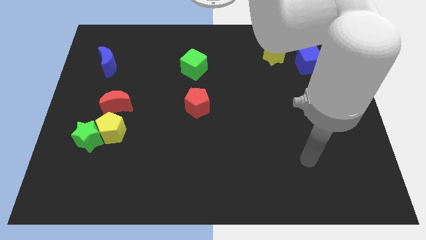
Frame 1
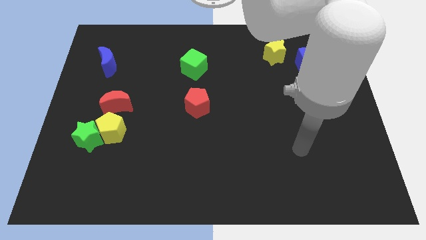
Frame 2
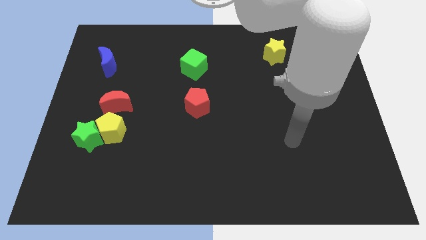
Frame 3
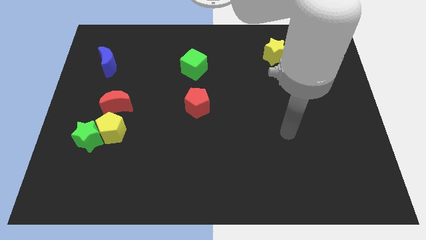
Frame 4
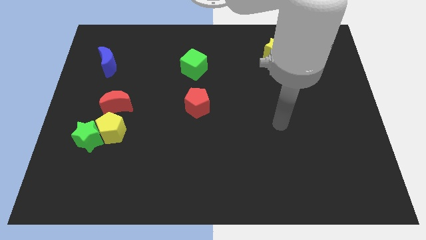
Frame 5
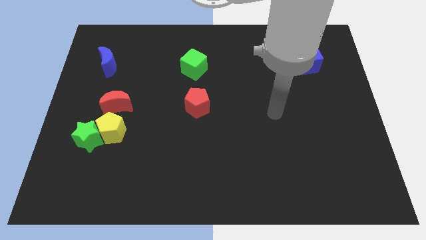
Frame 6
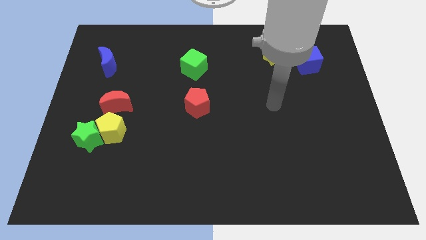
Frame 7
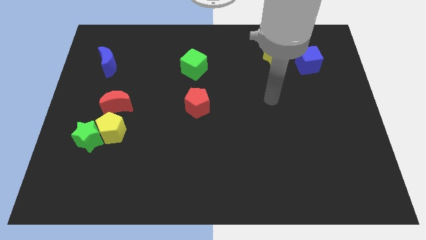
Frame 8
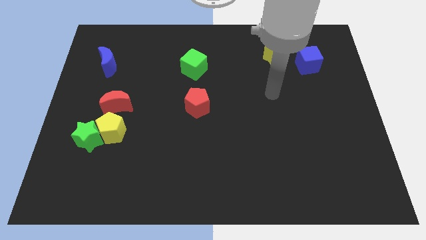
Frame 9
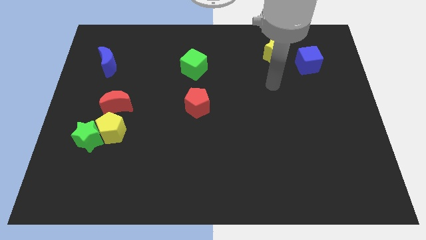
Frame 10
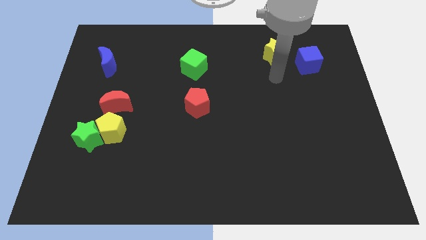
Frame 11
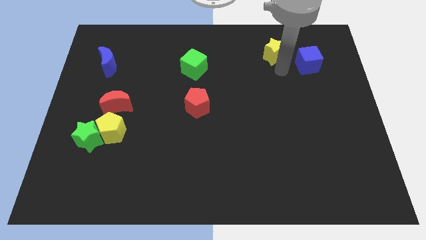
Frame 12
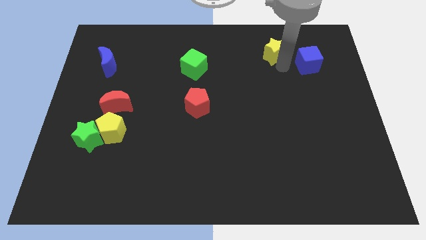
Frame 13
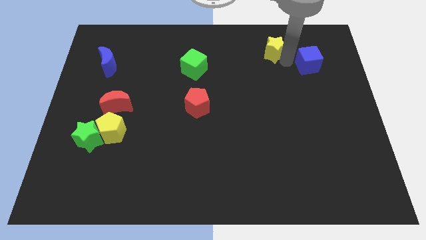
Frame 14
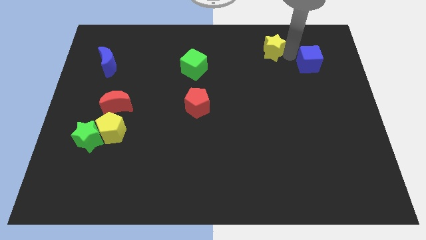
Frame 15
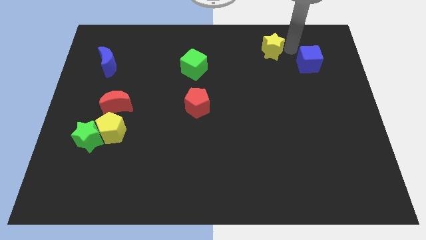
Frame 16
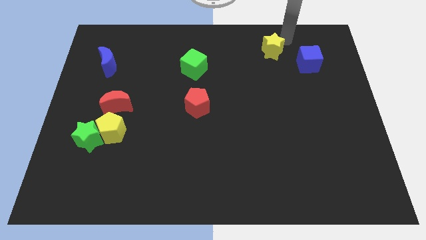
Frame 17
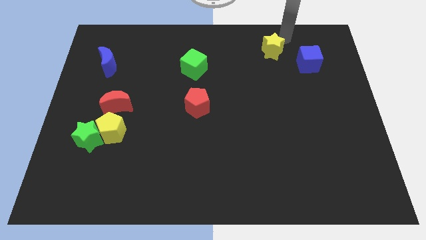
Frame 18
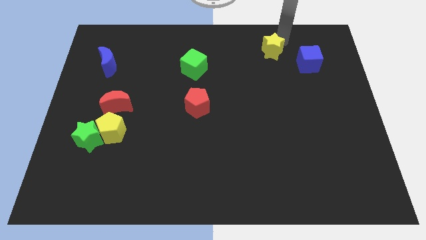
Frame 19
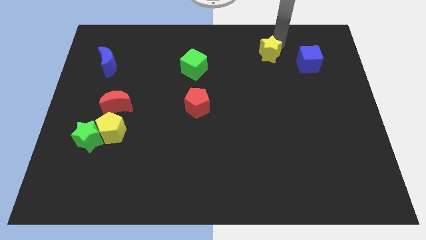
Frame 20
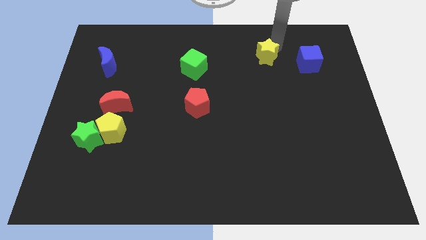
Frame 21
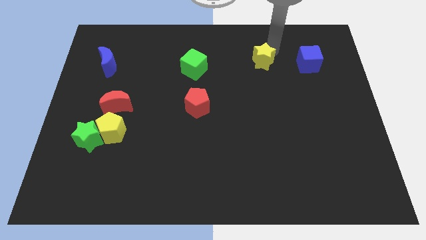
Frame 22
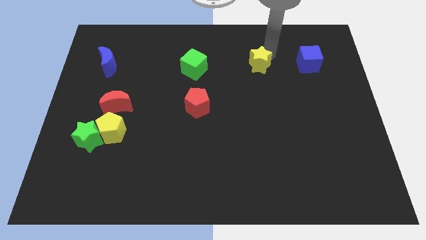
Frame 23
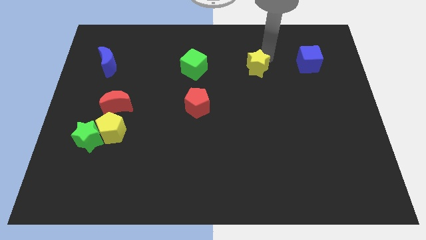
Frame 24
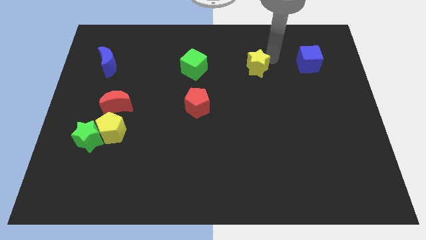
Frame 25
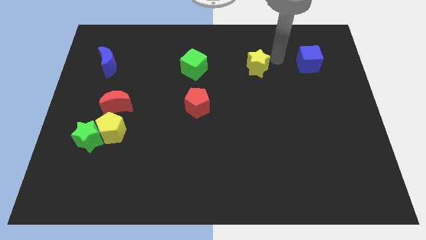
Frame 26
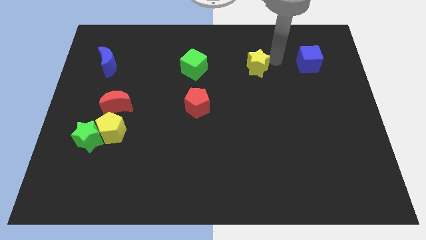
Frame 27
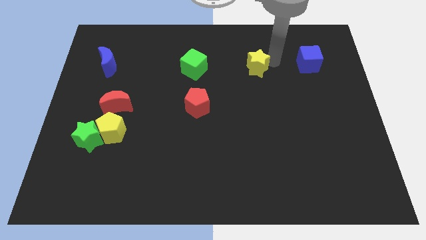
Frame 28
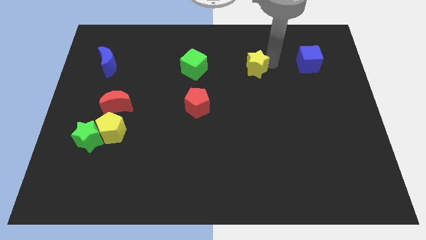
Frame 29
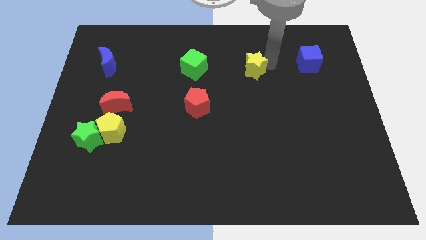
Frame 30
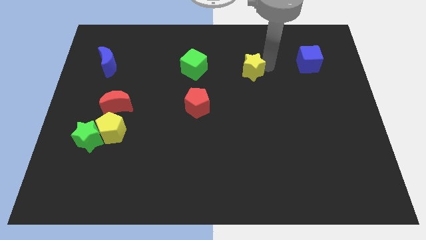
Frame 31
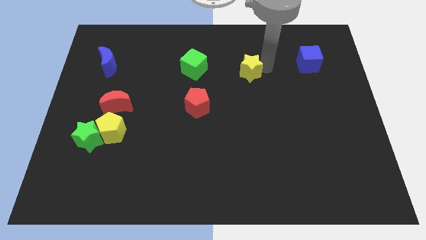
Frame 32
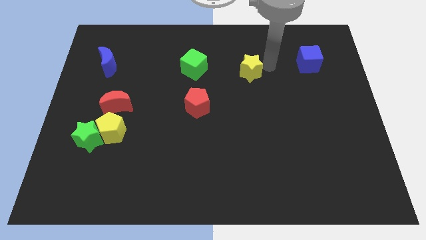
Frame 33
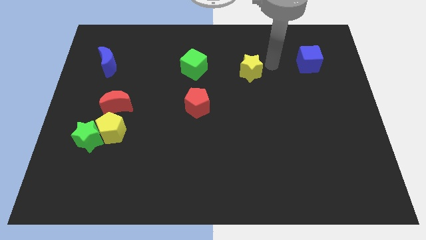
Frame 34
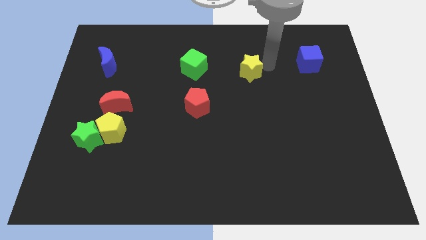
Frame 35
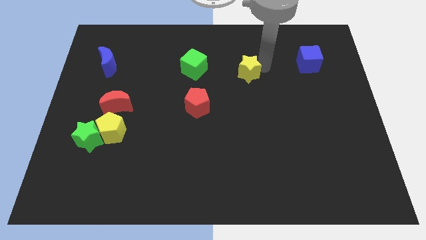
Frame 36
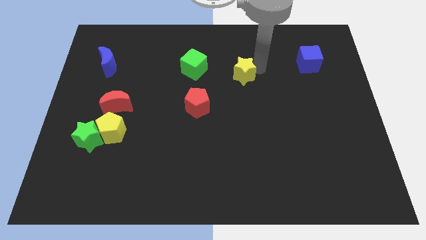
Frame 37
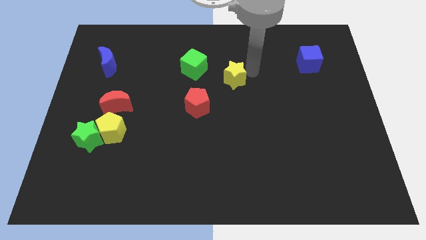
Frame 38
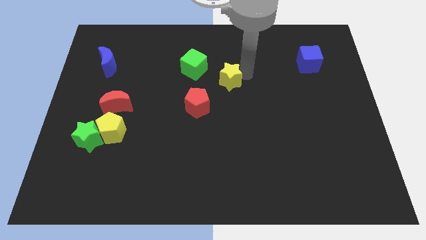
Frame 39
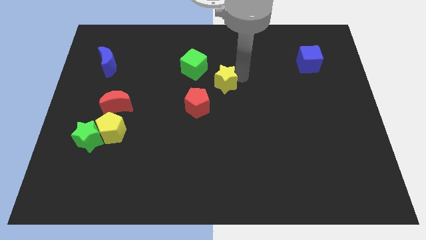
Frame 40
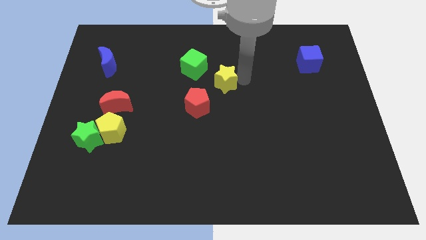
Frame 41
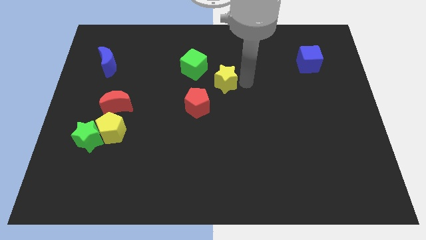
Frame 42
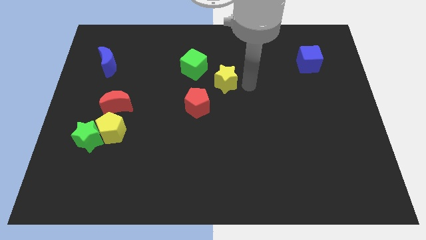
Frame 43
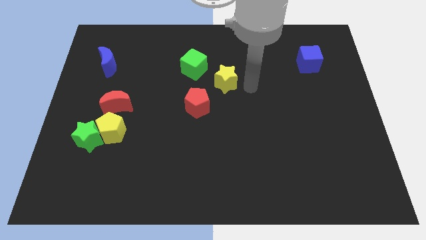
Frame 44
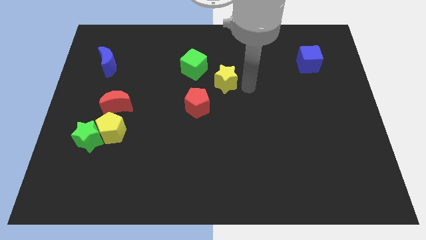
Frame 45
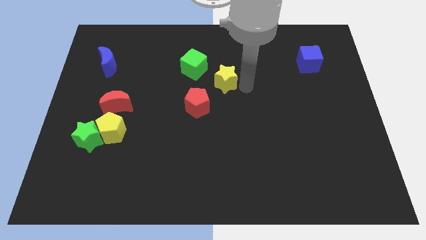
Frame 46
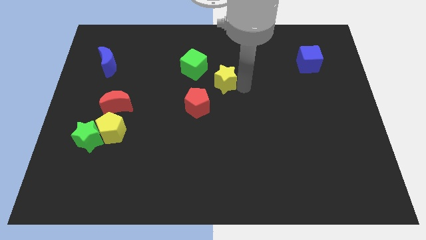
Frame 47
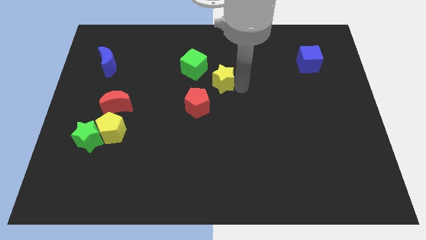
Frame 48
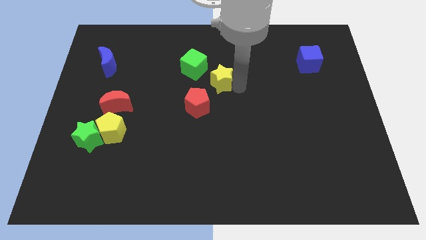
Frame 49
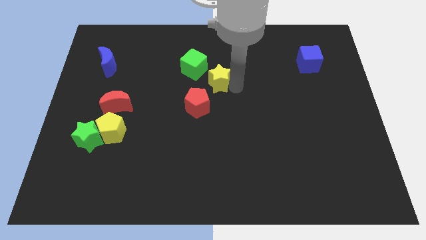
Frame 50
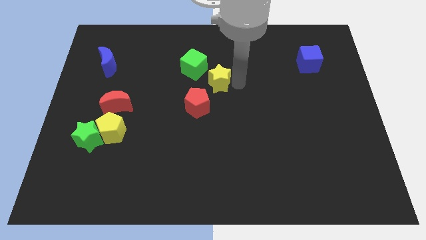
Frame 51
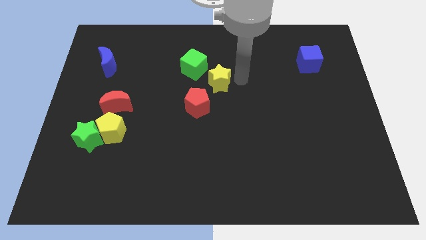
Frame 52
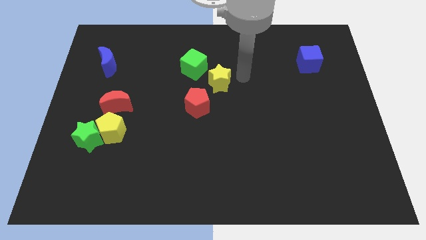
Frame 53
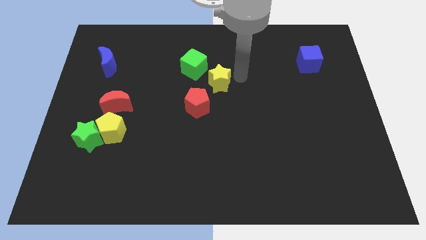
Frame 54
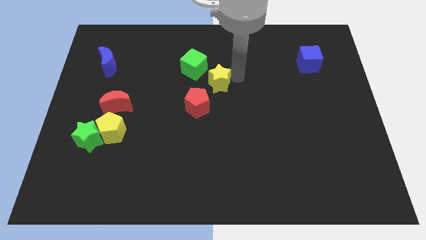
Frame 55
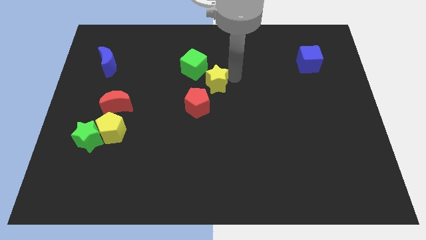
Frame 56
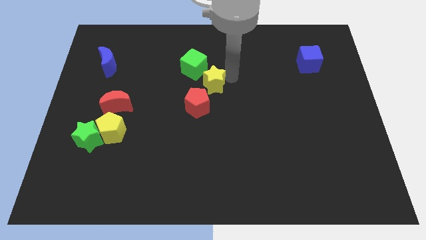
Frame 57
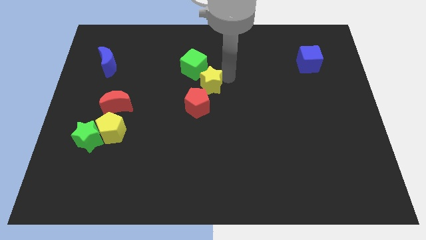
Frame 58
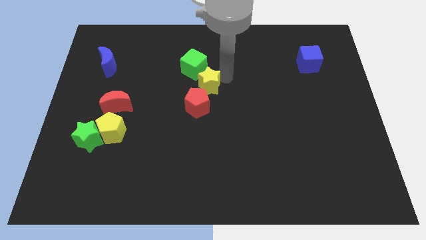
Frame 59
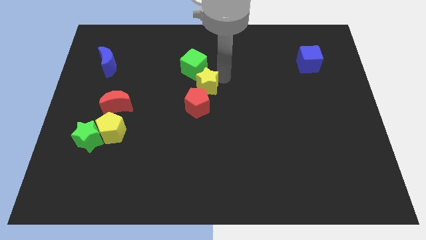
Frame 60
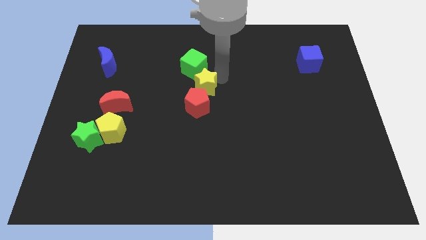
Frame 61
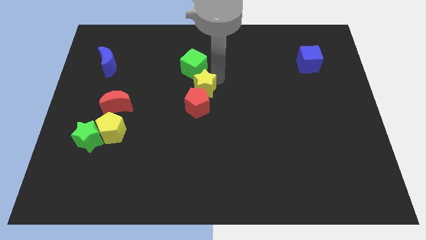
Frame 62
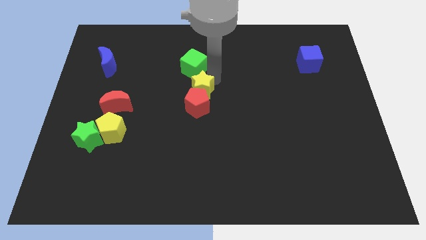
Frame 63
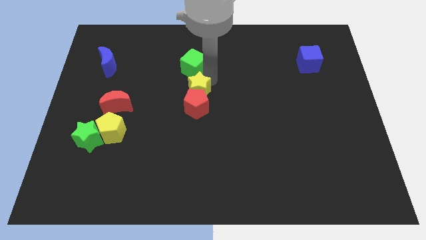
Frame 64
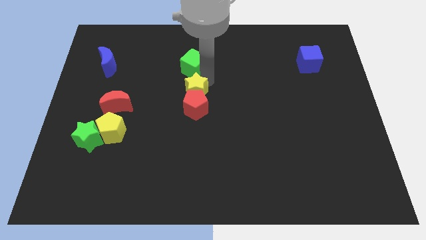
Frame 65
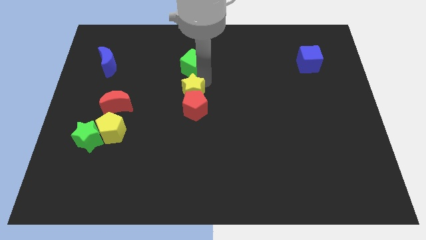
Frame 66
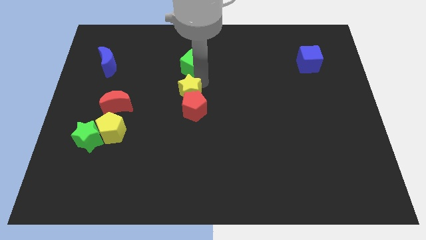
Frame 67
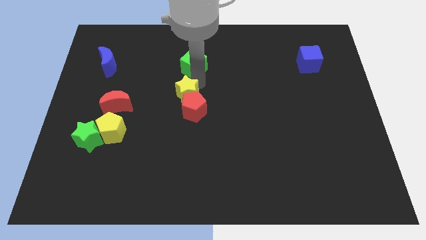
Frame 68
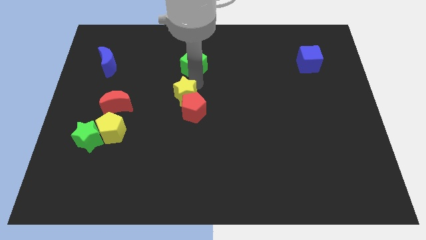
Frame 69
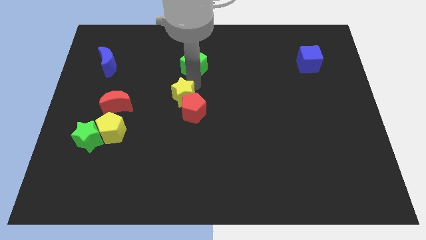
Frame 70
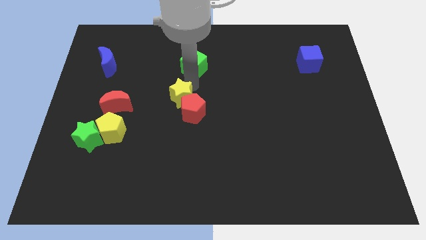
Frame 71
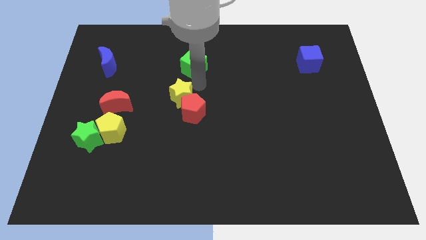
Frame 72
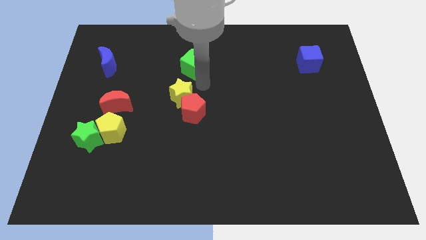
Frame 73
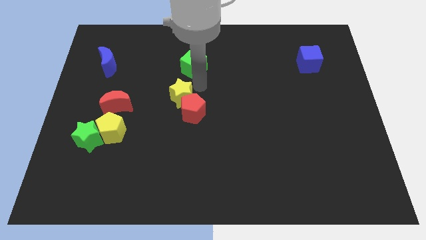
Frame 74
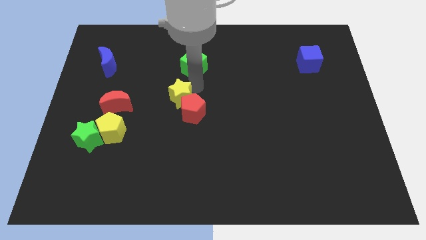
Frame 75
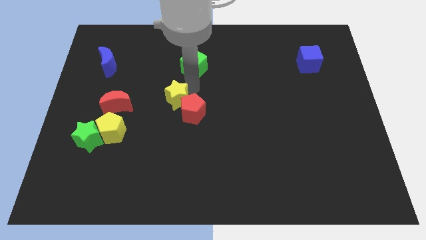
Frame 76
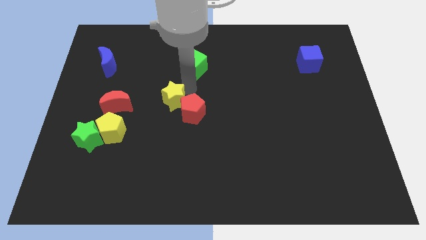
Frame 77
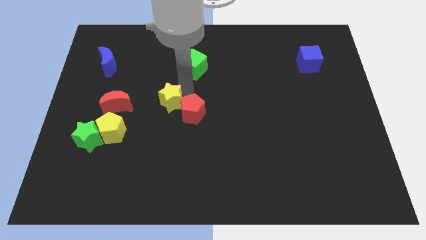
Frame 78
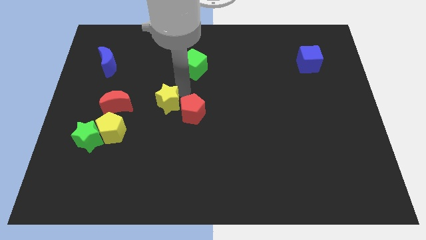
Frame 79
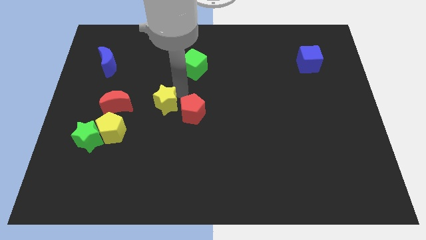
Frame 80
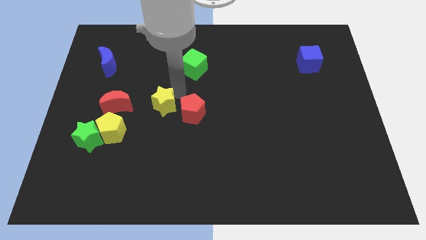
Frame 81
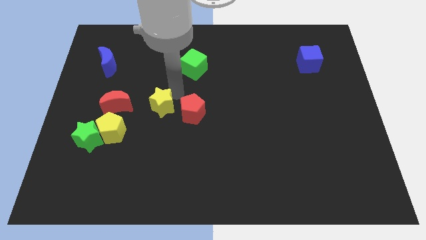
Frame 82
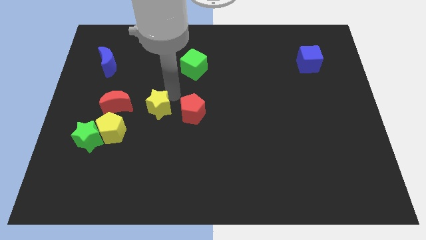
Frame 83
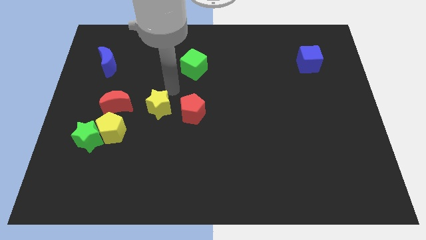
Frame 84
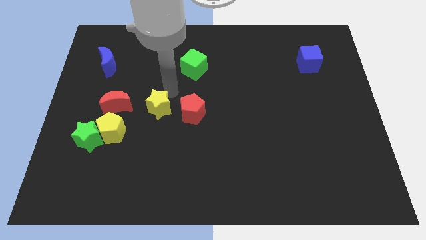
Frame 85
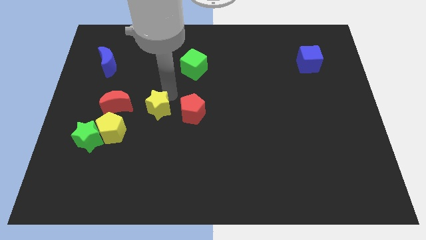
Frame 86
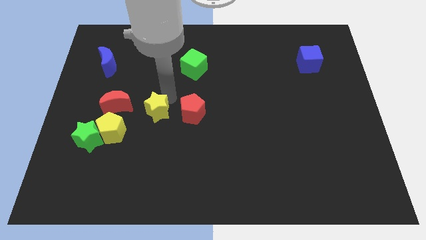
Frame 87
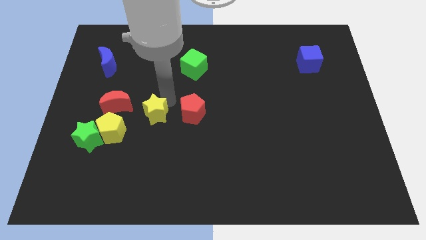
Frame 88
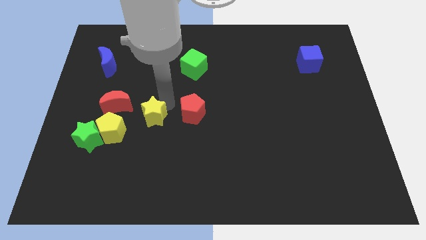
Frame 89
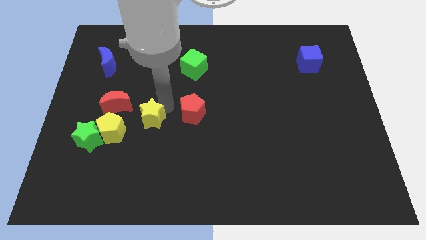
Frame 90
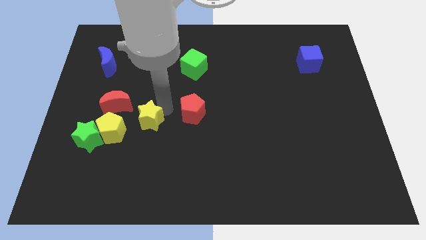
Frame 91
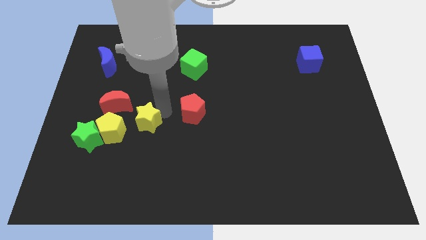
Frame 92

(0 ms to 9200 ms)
move the yellow star to the right of the green star
